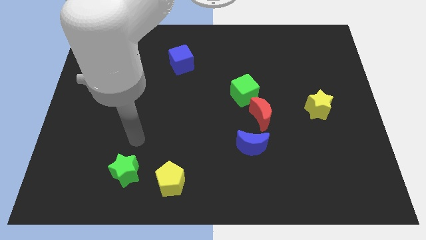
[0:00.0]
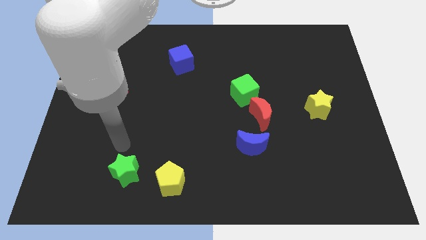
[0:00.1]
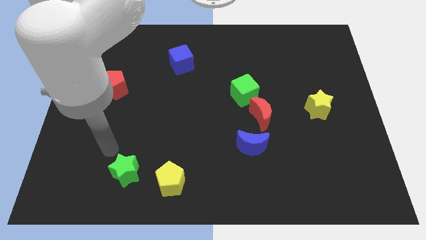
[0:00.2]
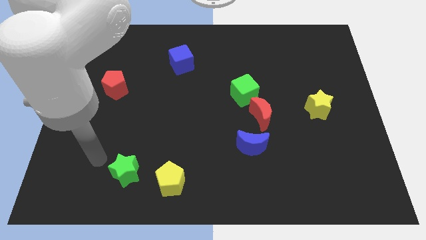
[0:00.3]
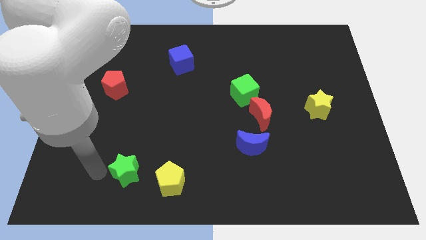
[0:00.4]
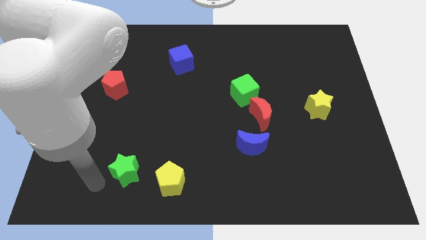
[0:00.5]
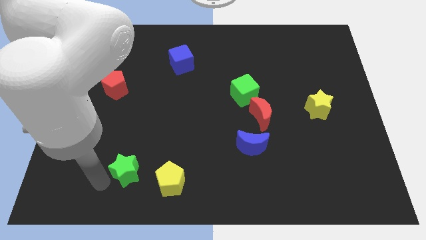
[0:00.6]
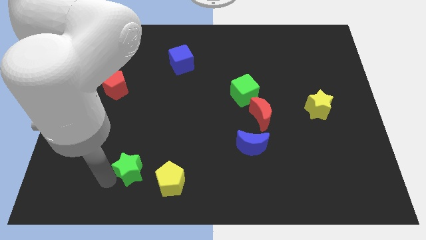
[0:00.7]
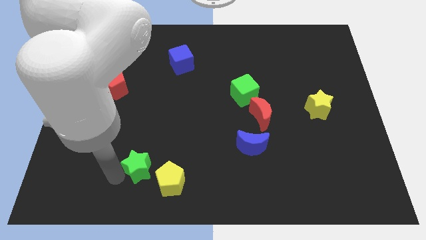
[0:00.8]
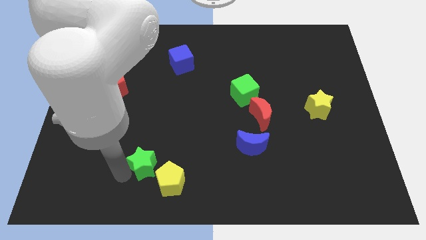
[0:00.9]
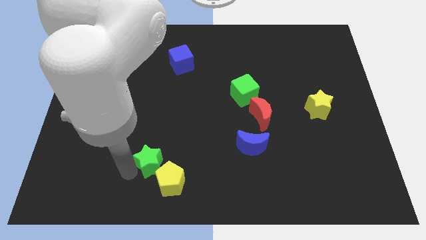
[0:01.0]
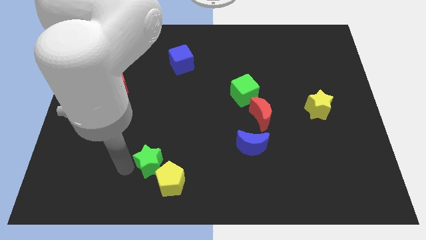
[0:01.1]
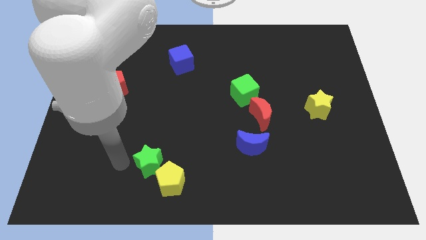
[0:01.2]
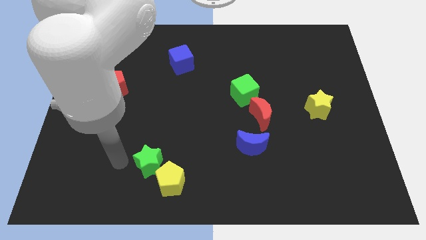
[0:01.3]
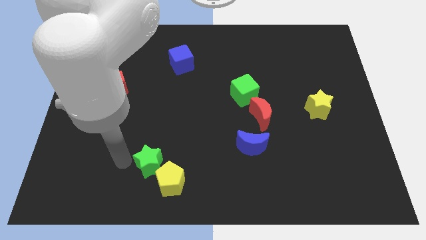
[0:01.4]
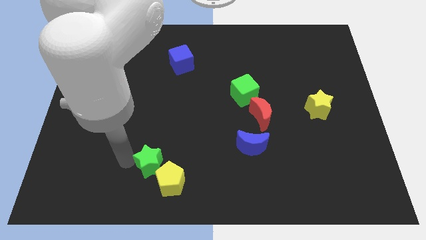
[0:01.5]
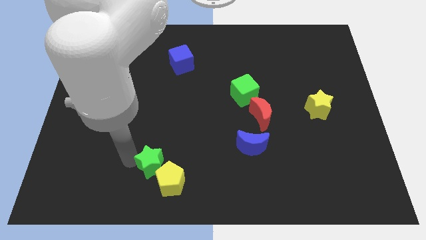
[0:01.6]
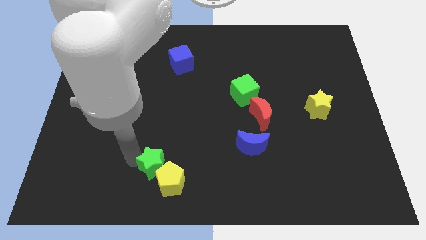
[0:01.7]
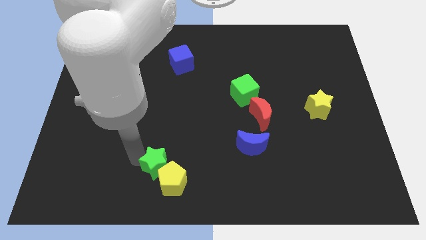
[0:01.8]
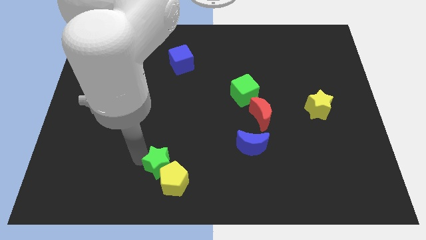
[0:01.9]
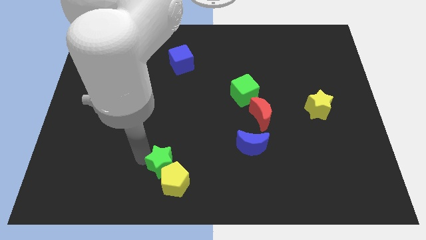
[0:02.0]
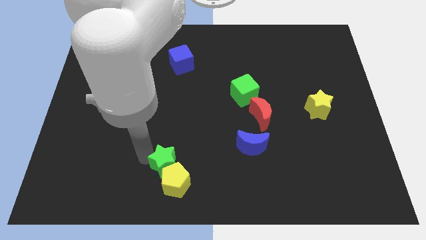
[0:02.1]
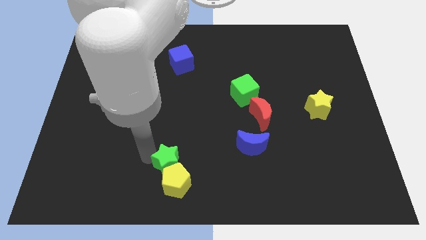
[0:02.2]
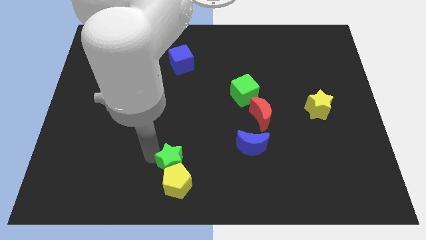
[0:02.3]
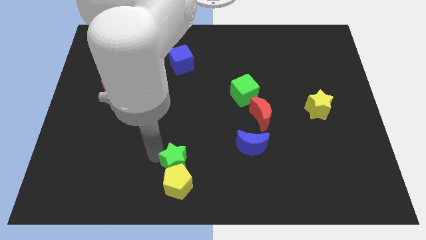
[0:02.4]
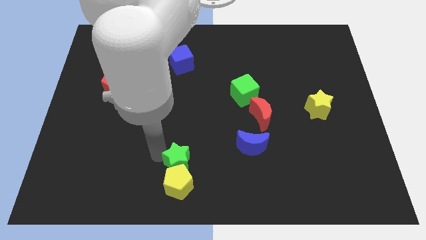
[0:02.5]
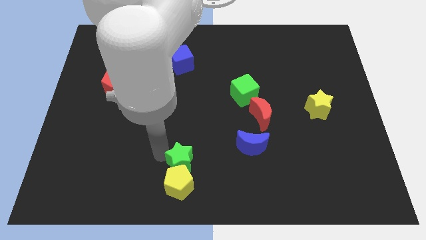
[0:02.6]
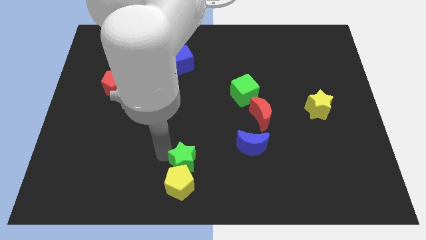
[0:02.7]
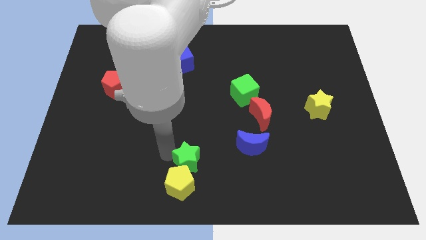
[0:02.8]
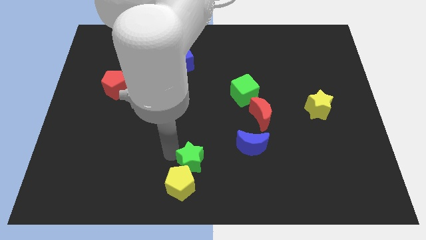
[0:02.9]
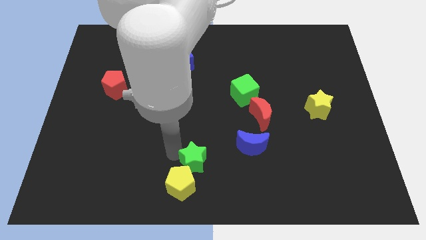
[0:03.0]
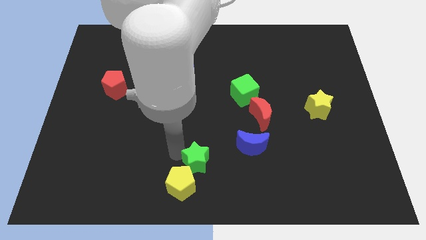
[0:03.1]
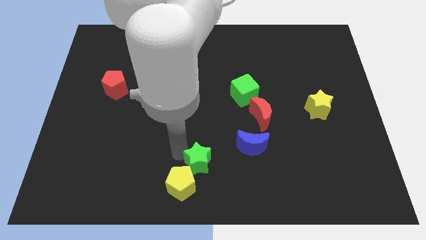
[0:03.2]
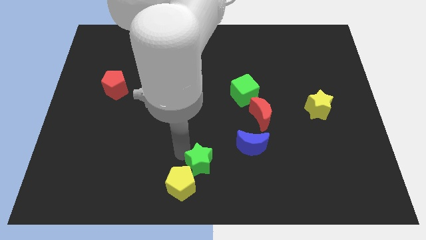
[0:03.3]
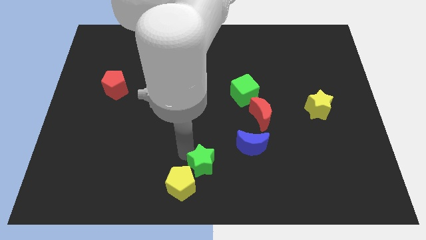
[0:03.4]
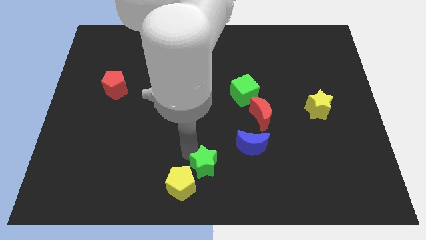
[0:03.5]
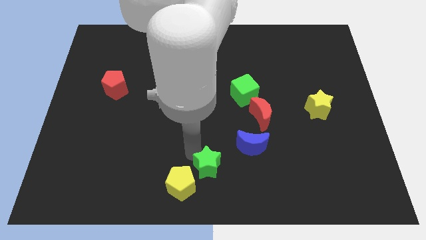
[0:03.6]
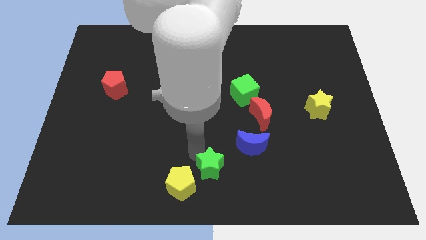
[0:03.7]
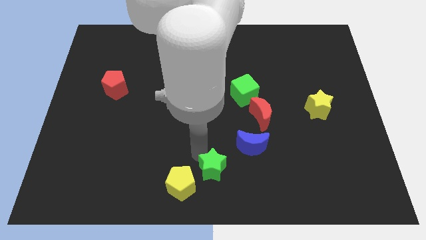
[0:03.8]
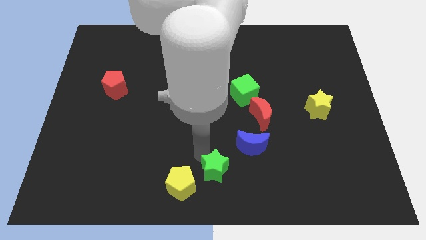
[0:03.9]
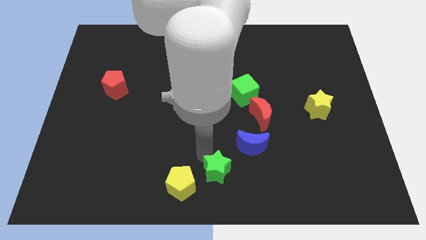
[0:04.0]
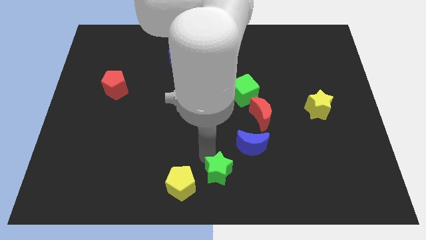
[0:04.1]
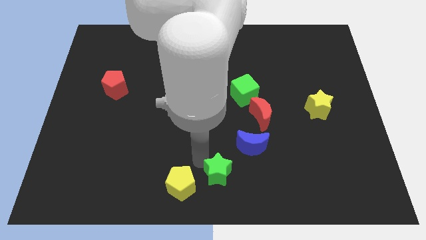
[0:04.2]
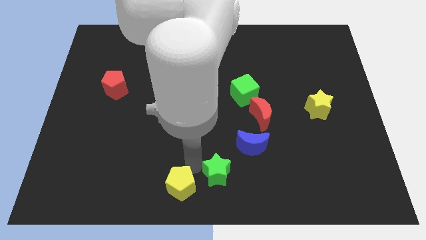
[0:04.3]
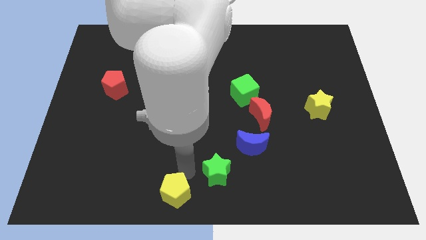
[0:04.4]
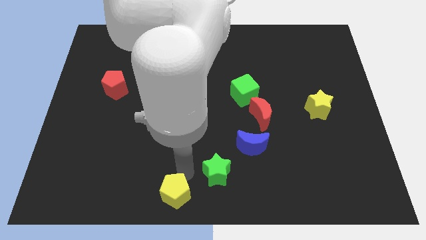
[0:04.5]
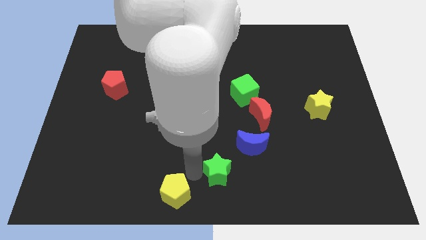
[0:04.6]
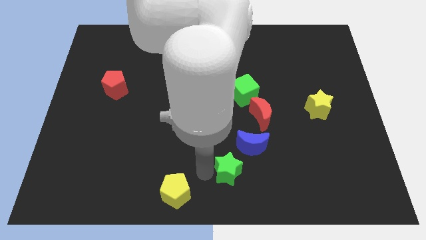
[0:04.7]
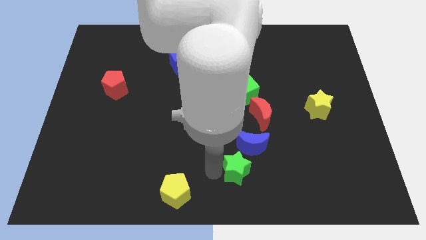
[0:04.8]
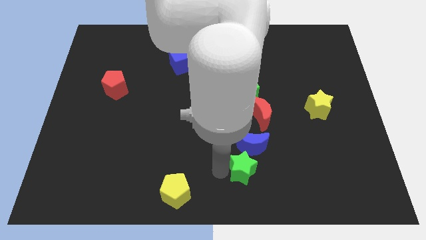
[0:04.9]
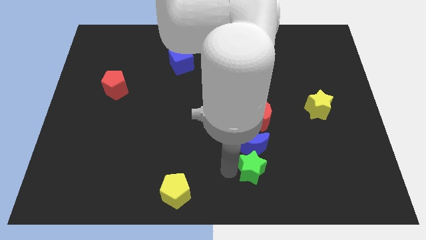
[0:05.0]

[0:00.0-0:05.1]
put the green star diagonally down and to the right of the blue moon

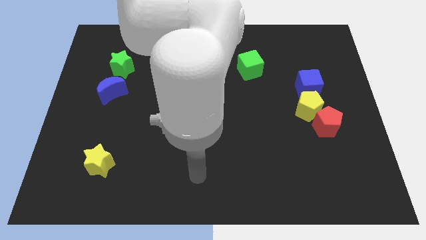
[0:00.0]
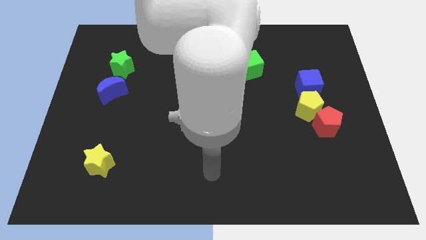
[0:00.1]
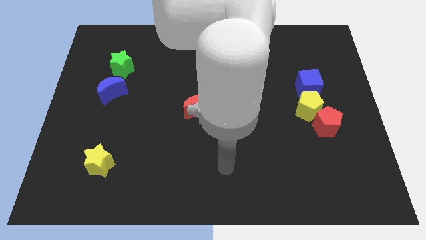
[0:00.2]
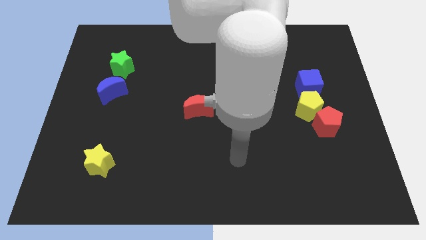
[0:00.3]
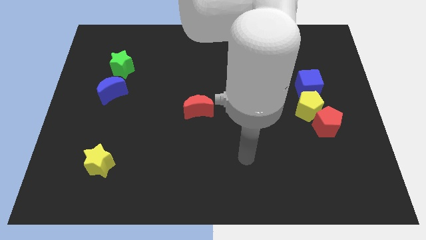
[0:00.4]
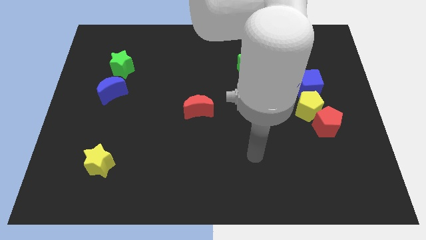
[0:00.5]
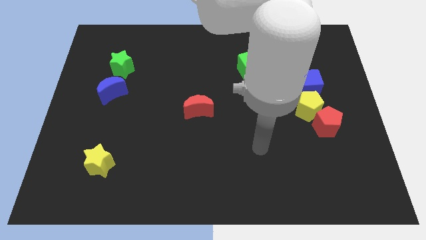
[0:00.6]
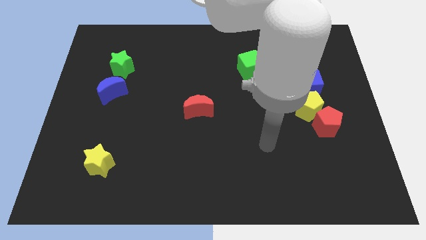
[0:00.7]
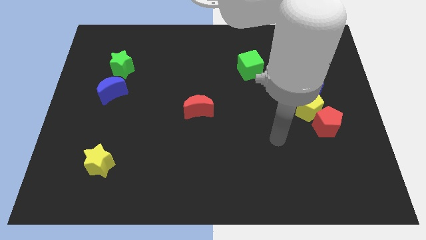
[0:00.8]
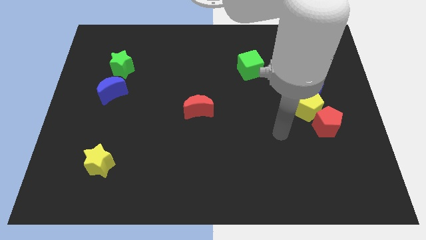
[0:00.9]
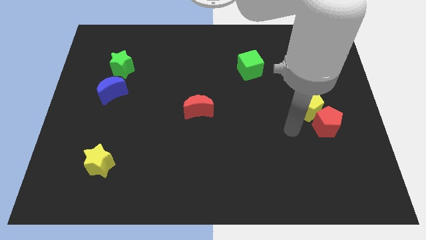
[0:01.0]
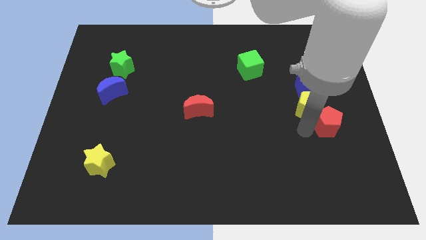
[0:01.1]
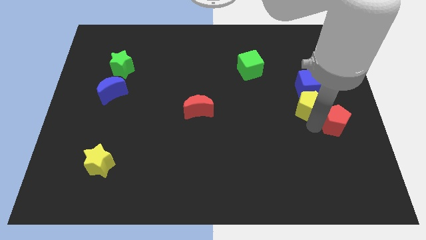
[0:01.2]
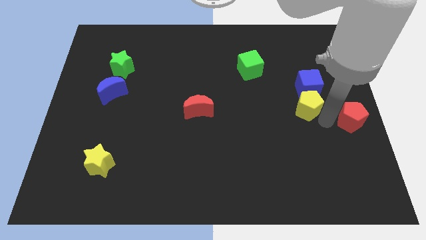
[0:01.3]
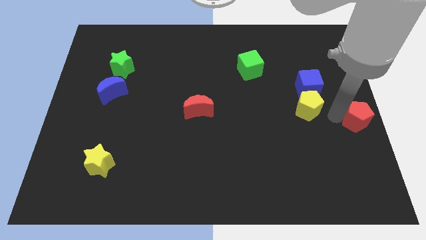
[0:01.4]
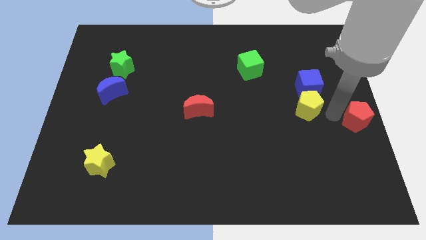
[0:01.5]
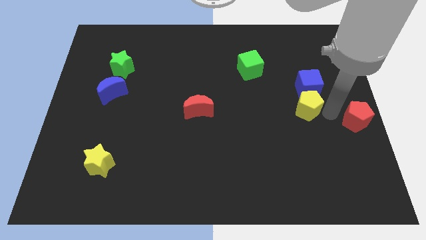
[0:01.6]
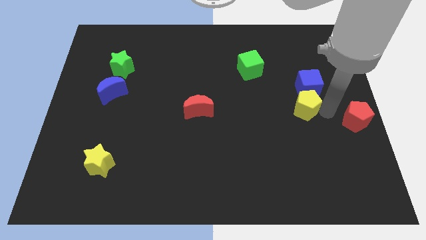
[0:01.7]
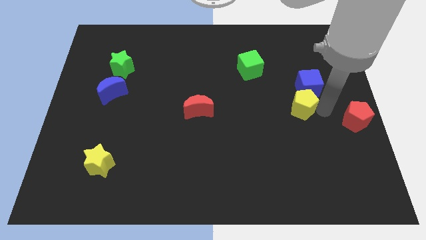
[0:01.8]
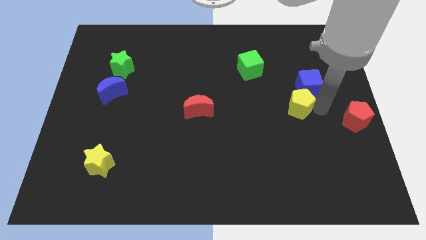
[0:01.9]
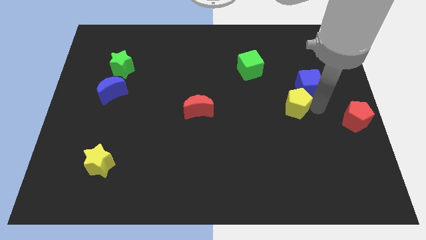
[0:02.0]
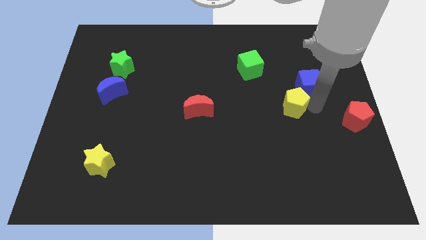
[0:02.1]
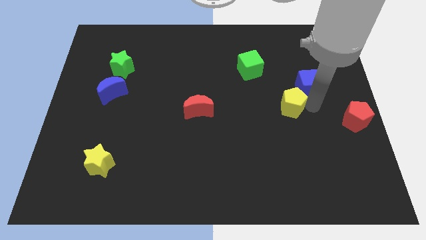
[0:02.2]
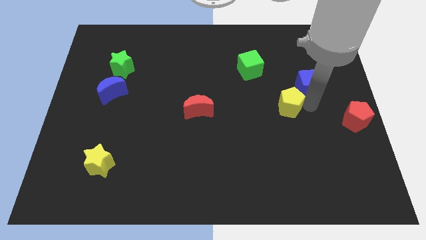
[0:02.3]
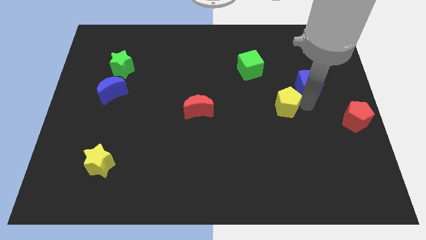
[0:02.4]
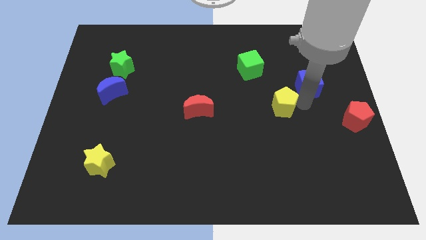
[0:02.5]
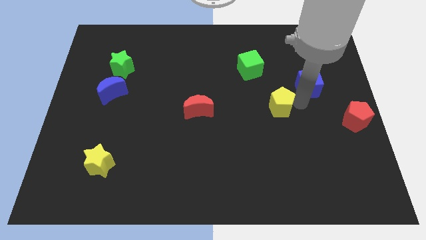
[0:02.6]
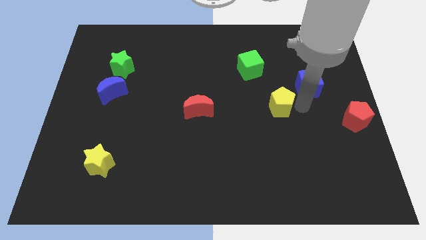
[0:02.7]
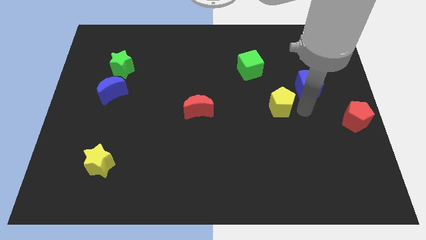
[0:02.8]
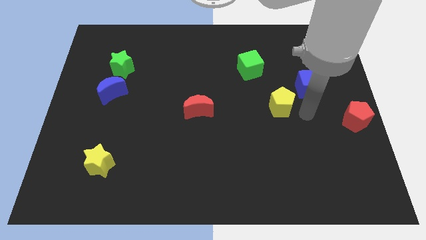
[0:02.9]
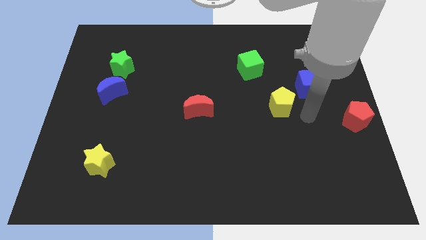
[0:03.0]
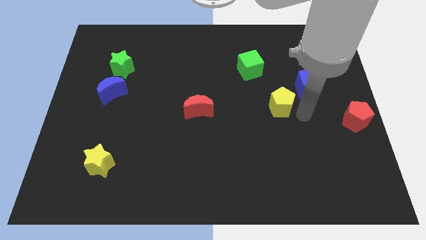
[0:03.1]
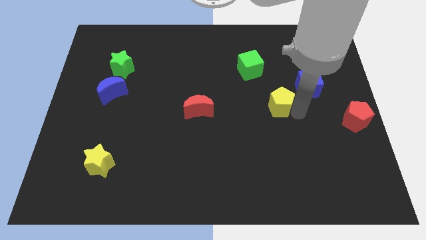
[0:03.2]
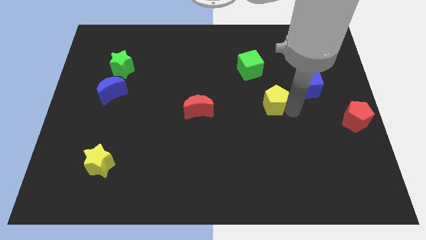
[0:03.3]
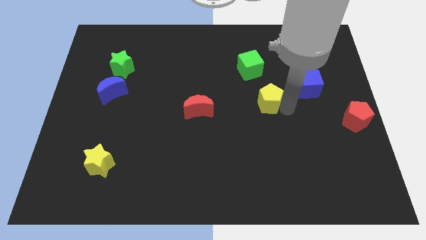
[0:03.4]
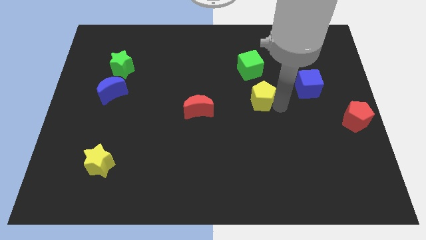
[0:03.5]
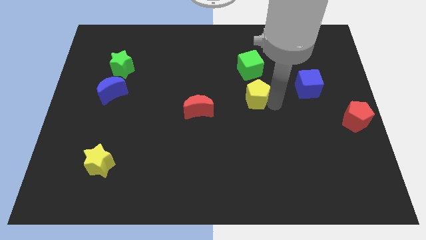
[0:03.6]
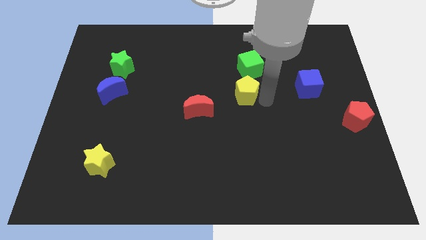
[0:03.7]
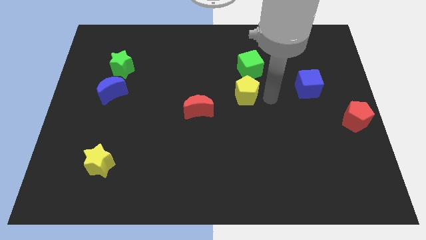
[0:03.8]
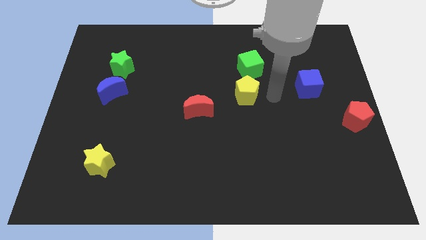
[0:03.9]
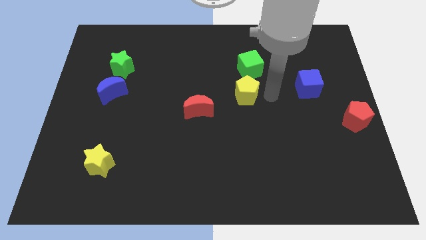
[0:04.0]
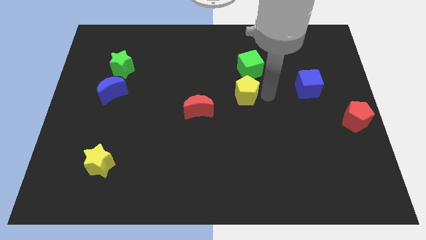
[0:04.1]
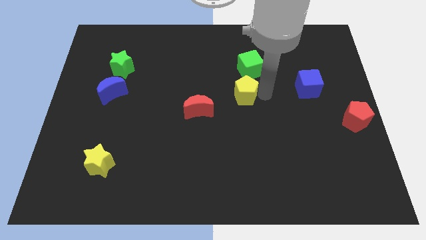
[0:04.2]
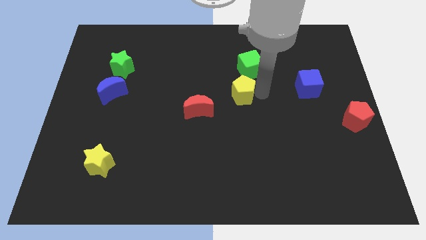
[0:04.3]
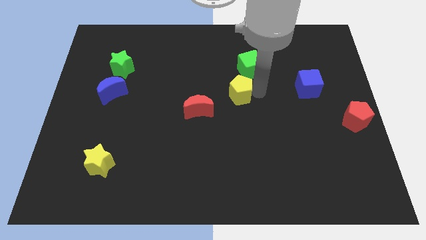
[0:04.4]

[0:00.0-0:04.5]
slide the yellow pentagon to the top right of the red moon
